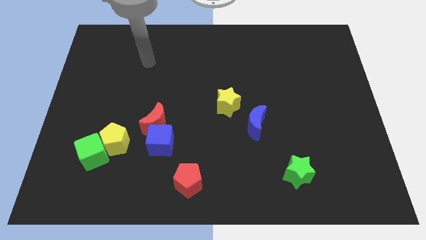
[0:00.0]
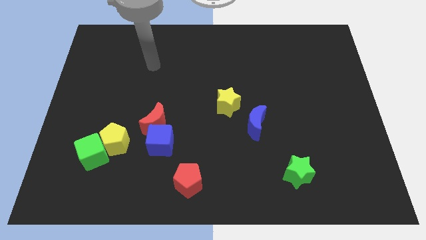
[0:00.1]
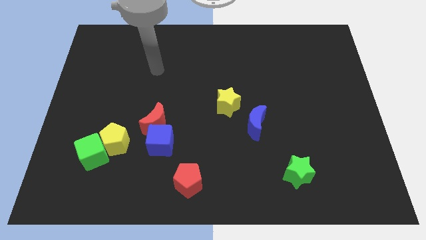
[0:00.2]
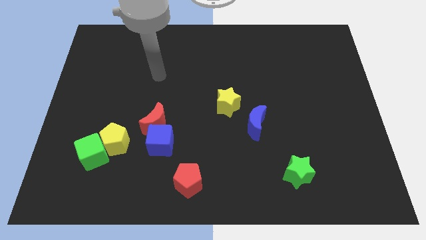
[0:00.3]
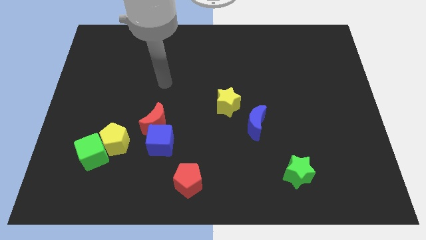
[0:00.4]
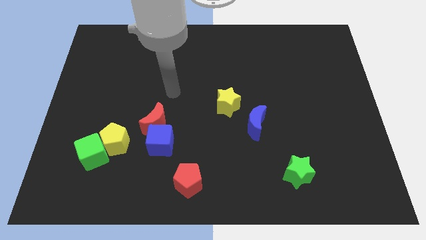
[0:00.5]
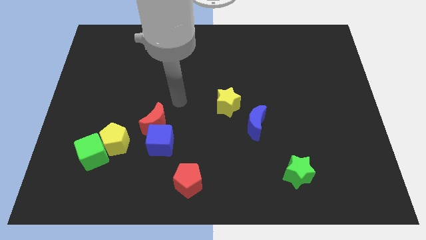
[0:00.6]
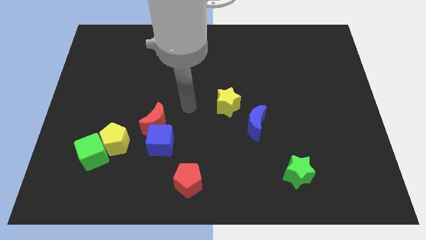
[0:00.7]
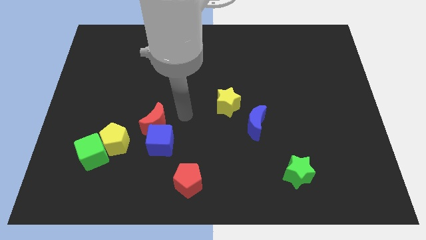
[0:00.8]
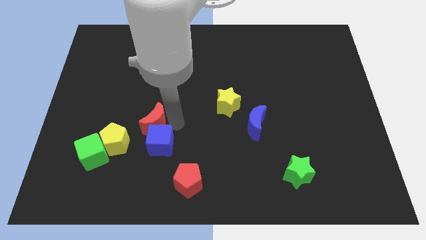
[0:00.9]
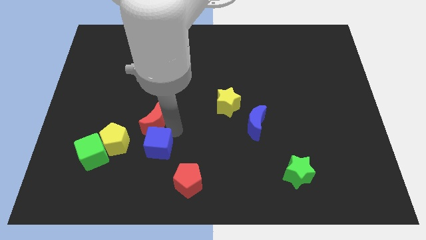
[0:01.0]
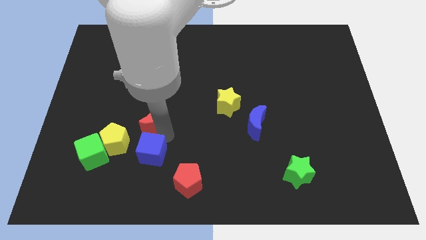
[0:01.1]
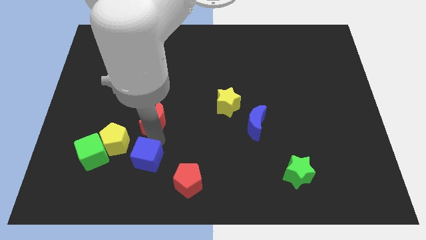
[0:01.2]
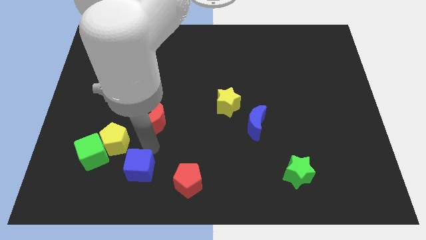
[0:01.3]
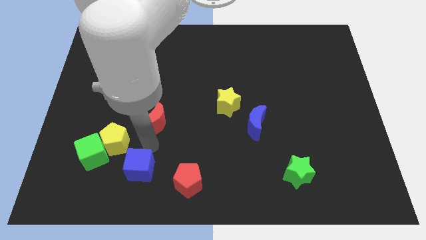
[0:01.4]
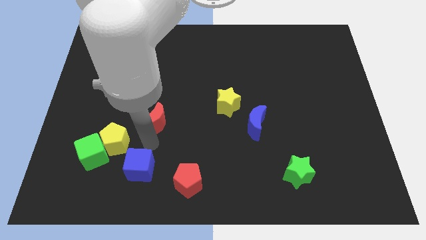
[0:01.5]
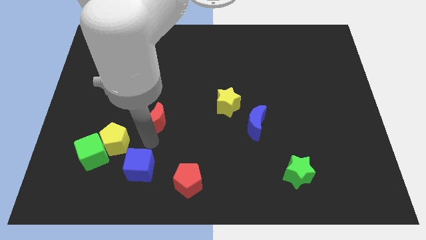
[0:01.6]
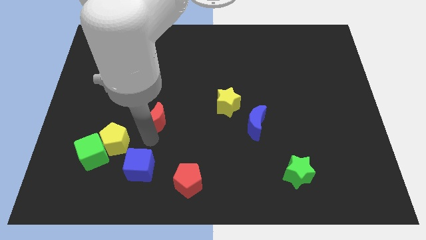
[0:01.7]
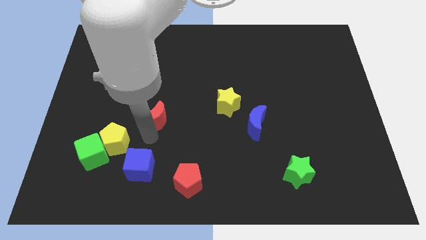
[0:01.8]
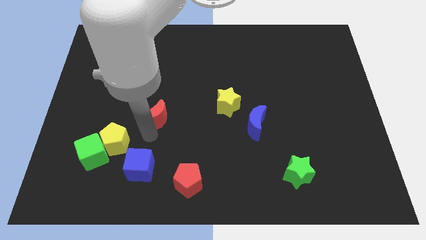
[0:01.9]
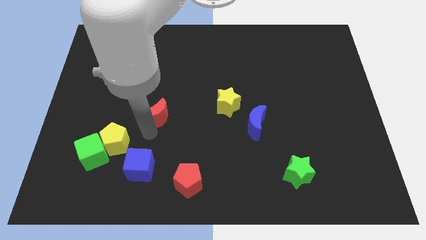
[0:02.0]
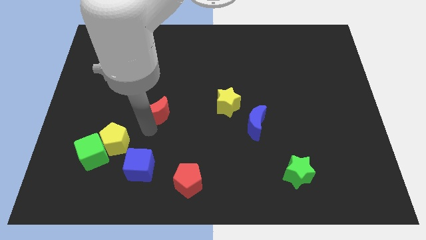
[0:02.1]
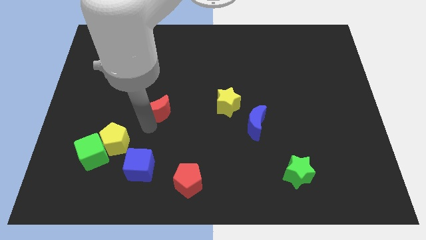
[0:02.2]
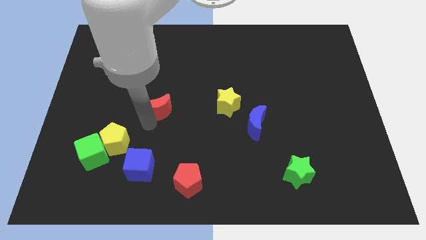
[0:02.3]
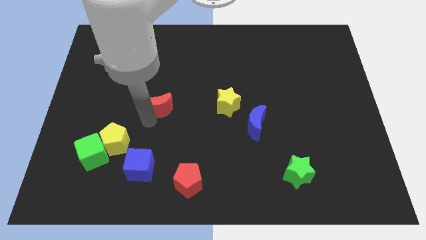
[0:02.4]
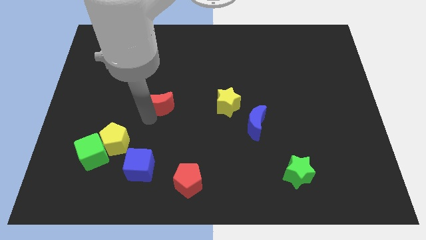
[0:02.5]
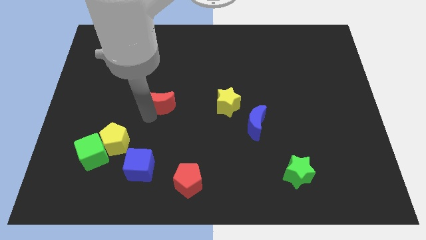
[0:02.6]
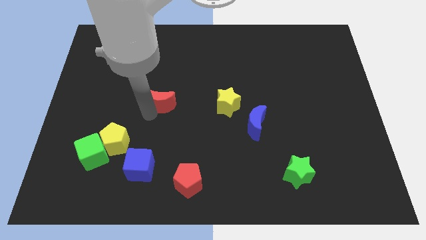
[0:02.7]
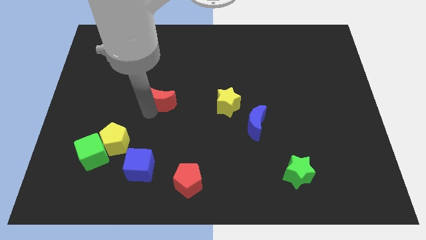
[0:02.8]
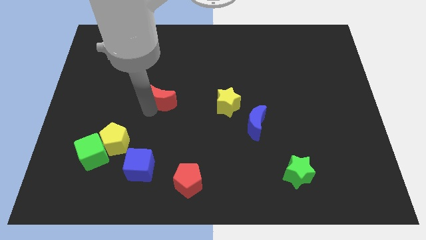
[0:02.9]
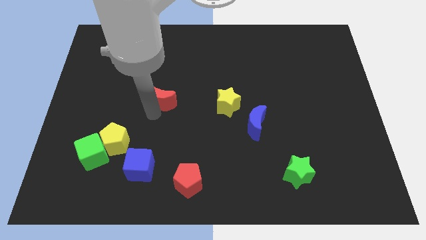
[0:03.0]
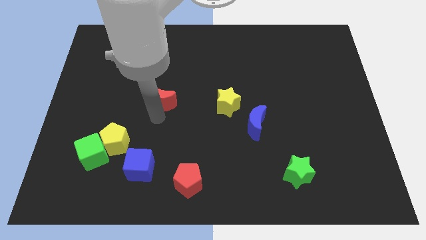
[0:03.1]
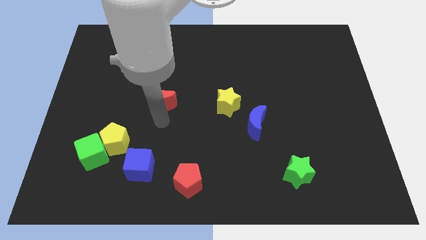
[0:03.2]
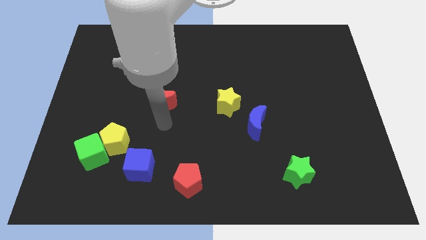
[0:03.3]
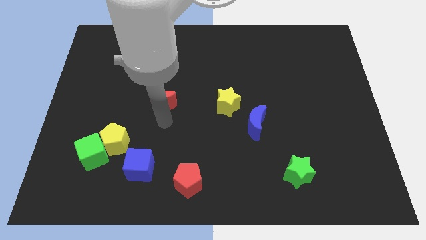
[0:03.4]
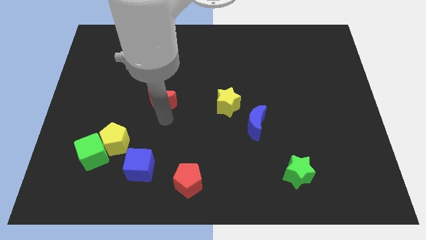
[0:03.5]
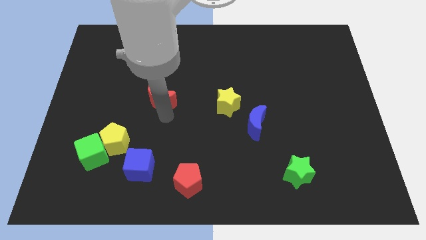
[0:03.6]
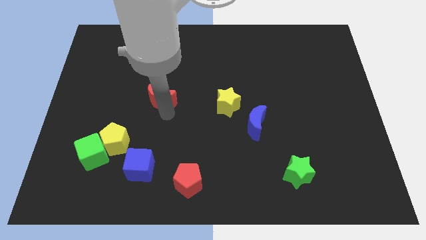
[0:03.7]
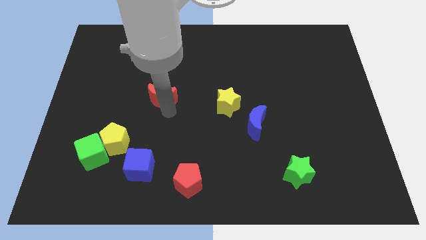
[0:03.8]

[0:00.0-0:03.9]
slightly slide the red moon upwards

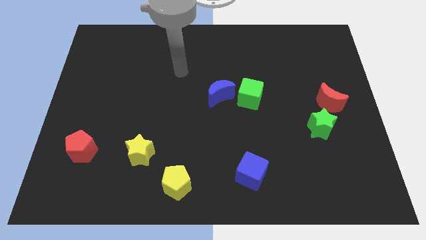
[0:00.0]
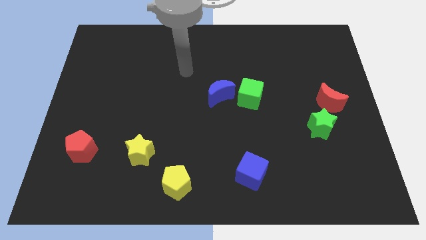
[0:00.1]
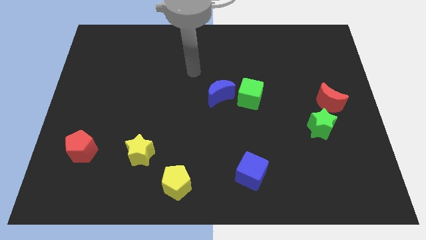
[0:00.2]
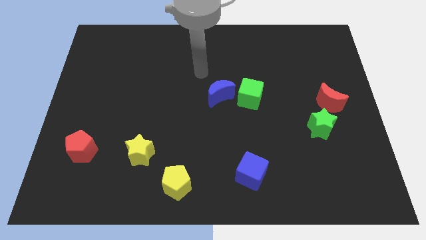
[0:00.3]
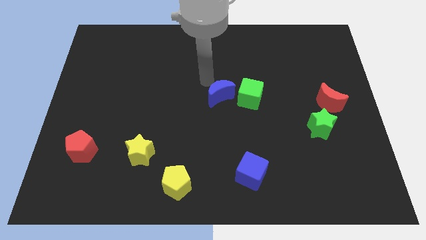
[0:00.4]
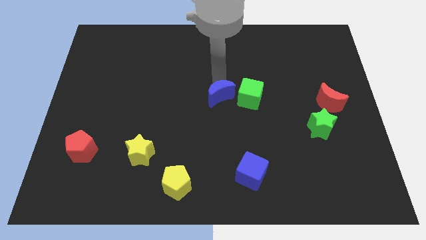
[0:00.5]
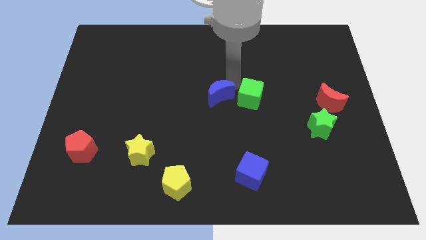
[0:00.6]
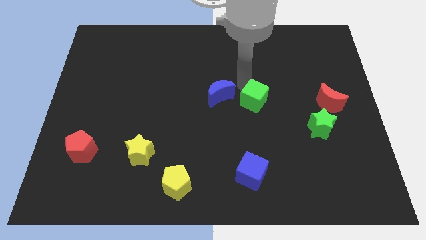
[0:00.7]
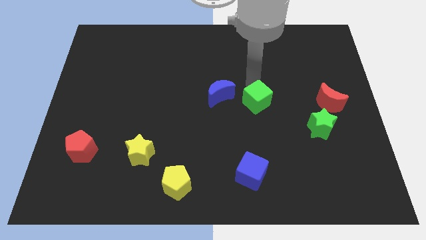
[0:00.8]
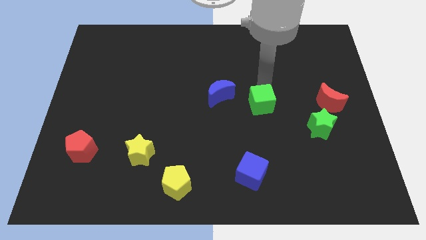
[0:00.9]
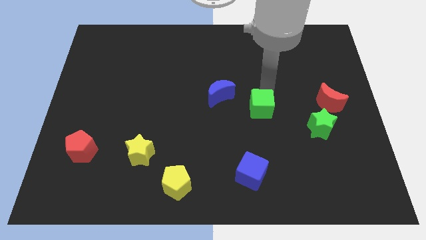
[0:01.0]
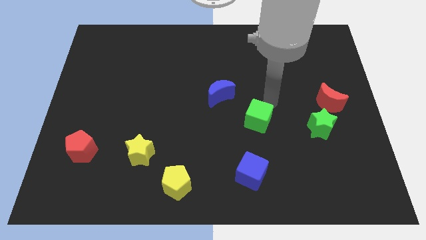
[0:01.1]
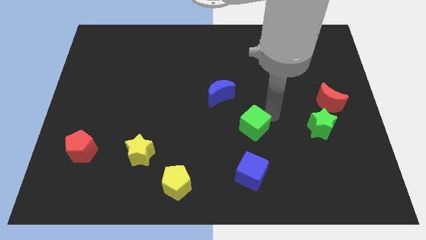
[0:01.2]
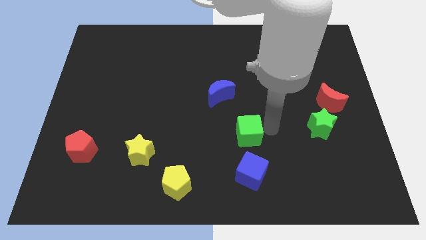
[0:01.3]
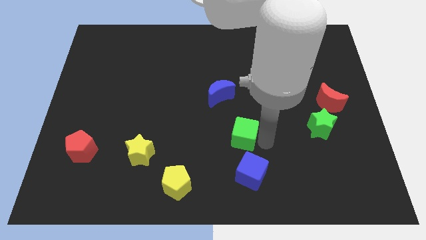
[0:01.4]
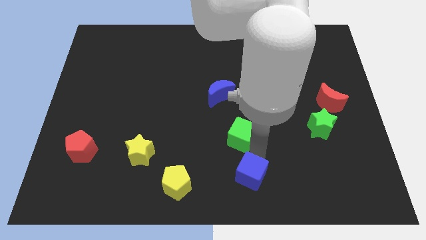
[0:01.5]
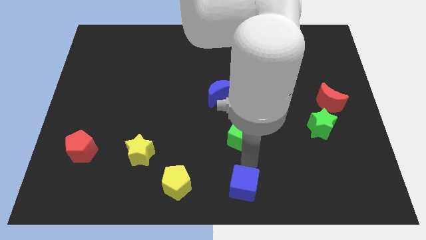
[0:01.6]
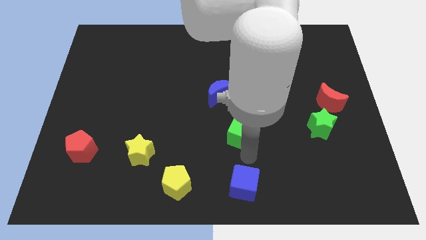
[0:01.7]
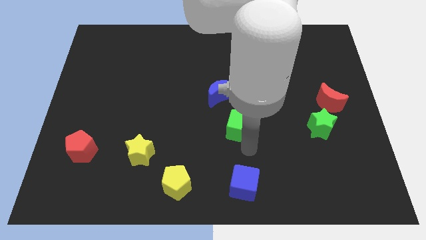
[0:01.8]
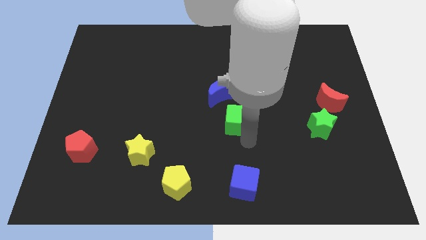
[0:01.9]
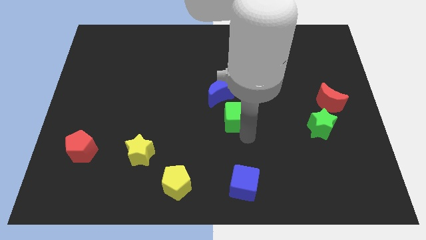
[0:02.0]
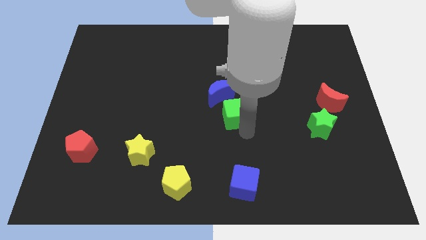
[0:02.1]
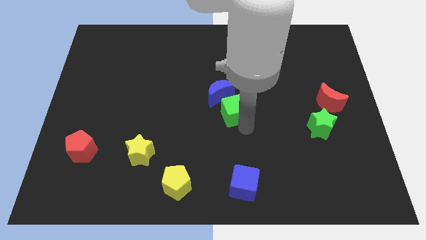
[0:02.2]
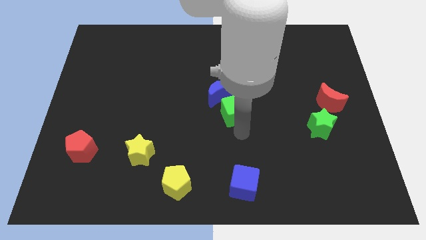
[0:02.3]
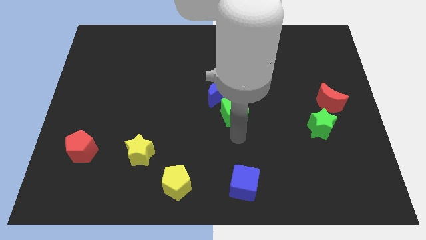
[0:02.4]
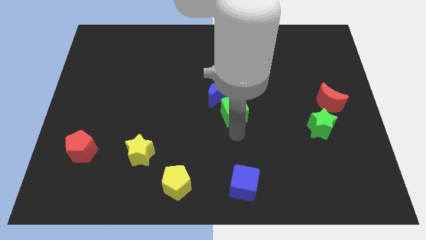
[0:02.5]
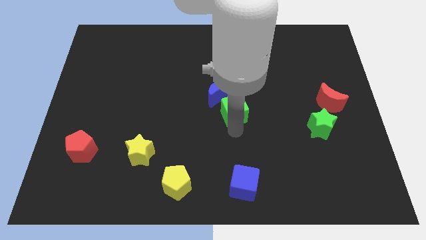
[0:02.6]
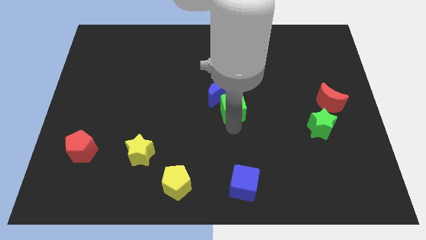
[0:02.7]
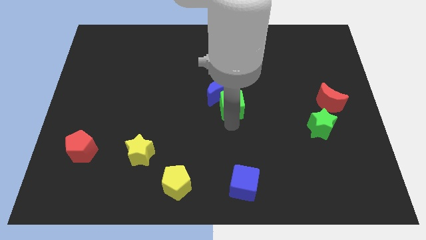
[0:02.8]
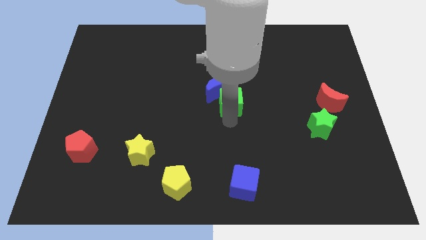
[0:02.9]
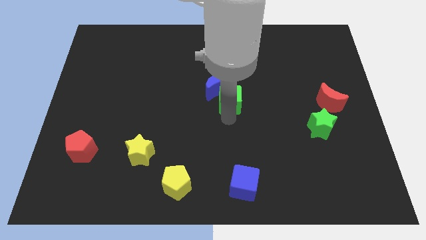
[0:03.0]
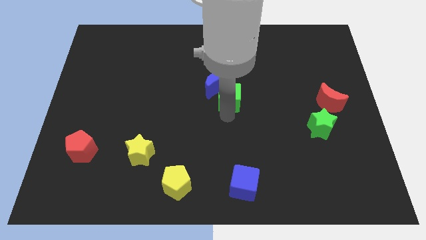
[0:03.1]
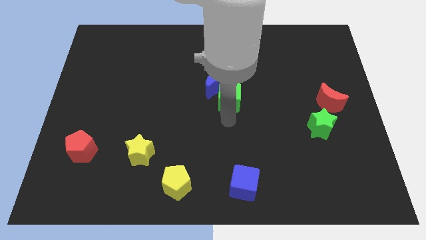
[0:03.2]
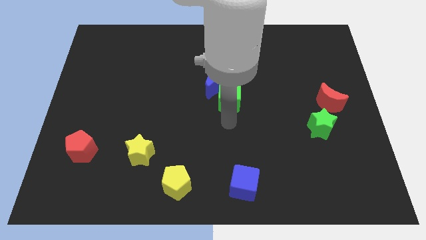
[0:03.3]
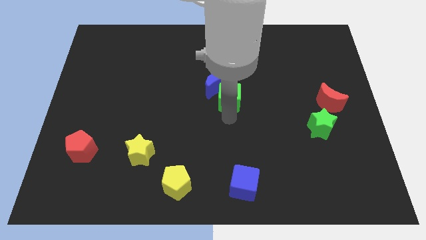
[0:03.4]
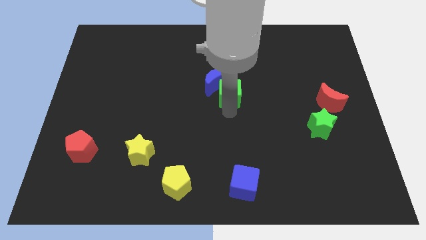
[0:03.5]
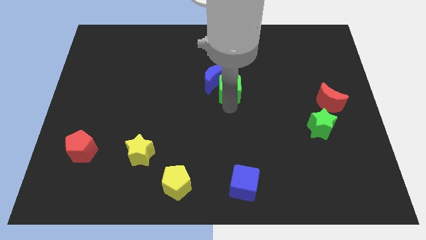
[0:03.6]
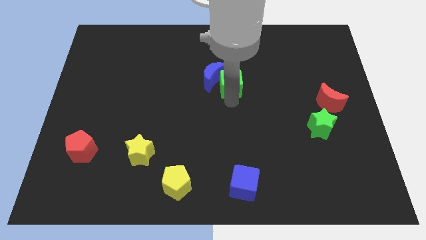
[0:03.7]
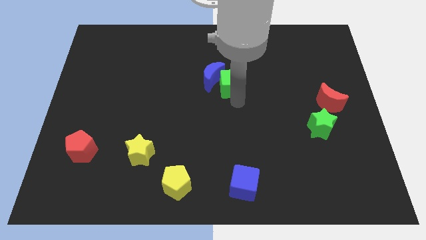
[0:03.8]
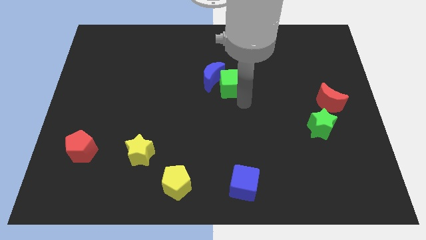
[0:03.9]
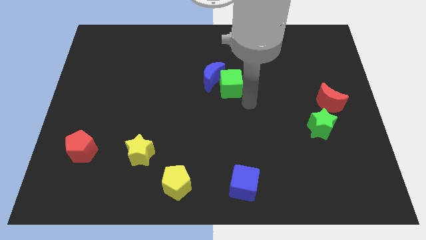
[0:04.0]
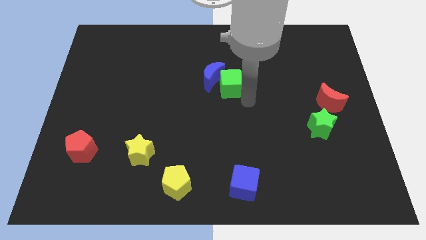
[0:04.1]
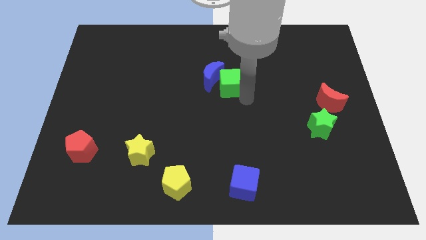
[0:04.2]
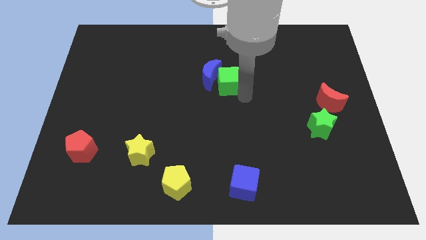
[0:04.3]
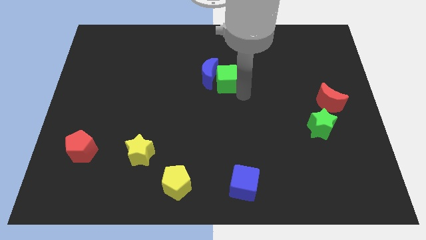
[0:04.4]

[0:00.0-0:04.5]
push the green cube diagonally upwards and to the left a little bit
